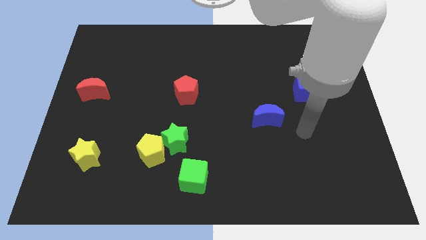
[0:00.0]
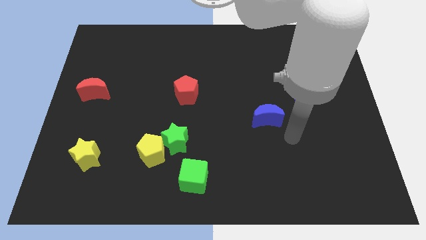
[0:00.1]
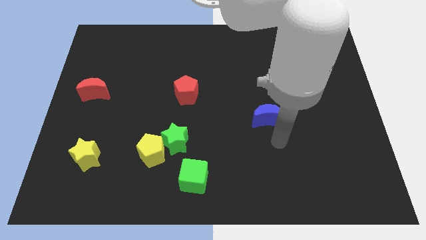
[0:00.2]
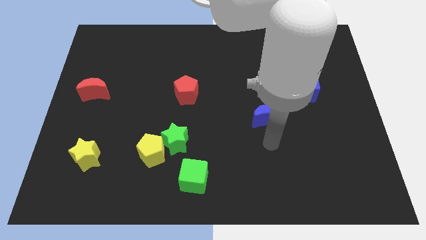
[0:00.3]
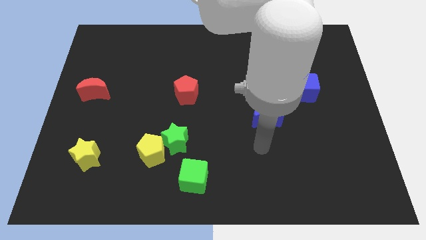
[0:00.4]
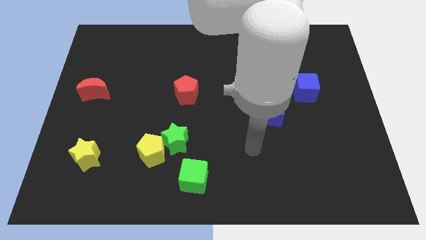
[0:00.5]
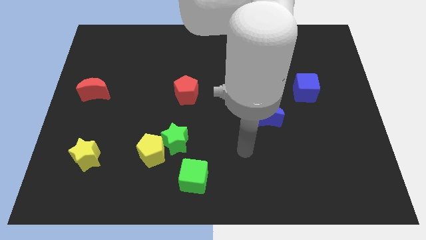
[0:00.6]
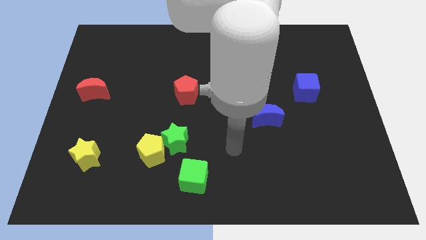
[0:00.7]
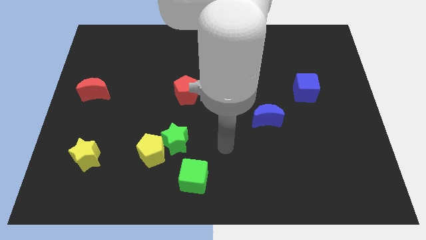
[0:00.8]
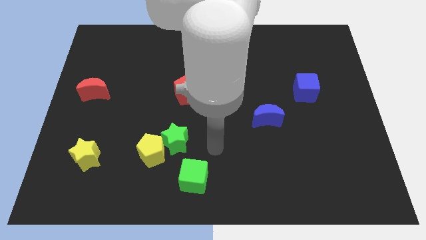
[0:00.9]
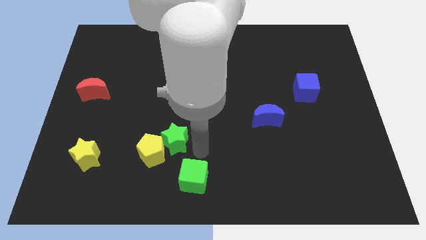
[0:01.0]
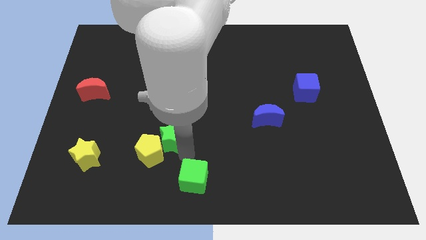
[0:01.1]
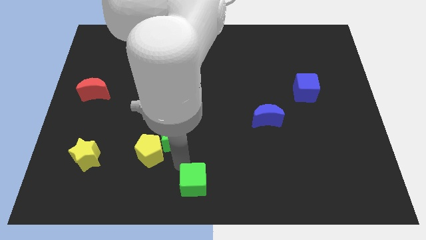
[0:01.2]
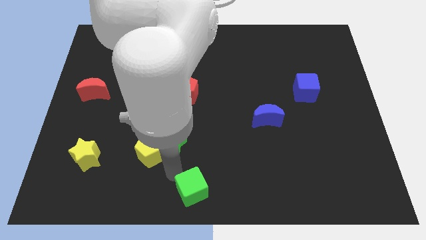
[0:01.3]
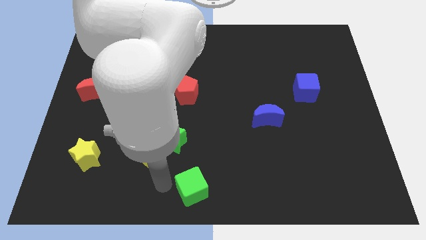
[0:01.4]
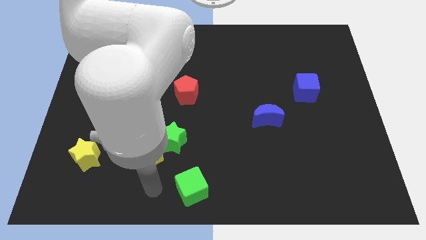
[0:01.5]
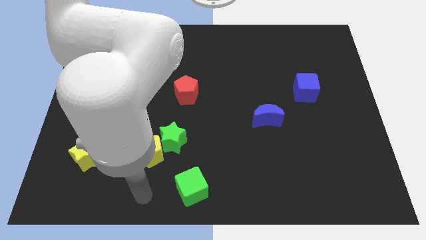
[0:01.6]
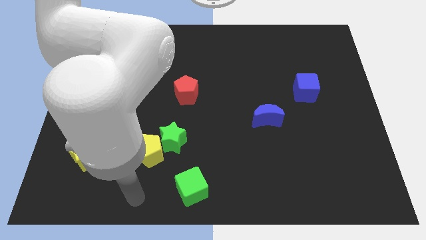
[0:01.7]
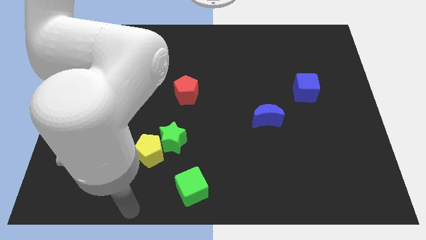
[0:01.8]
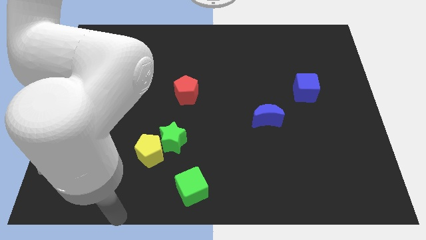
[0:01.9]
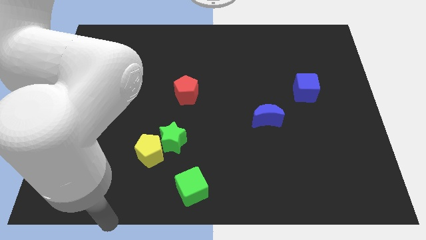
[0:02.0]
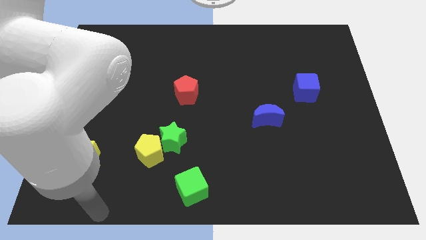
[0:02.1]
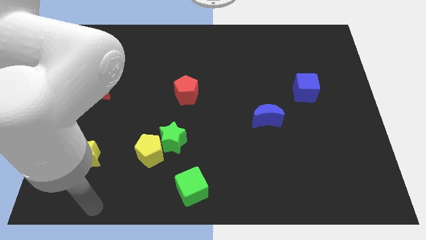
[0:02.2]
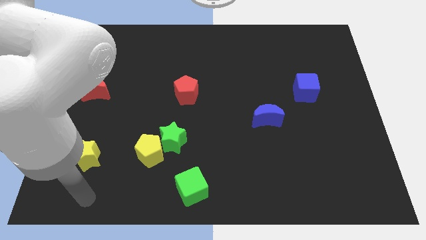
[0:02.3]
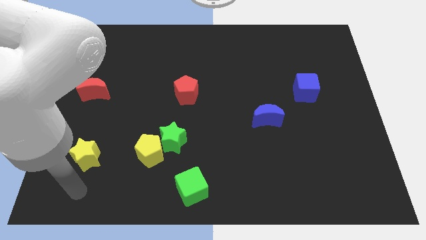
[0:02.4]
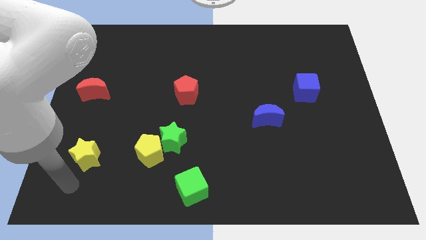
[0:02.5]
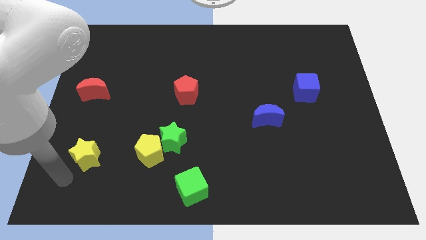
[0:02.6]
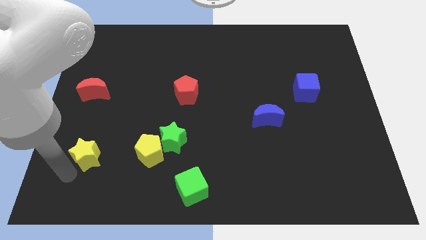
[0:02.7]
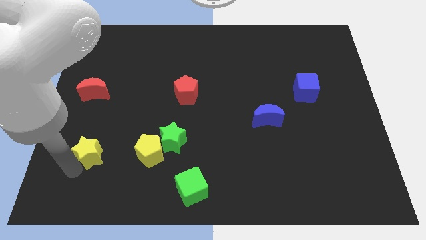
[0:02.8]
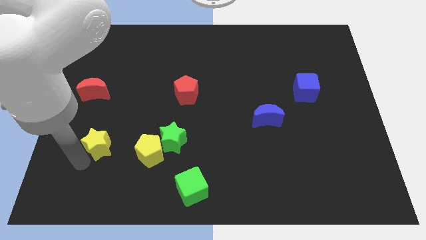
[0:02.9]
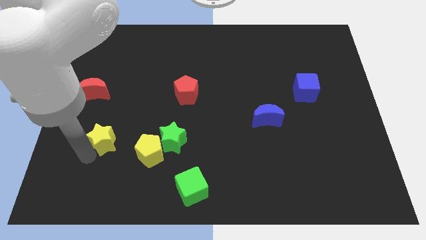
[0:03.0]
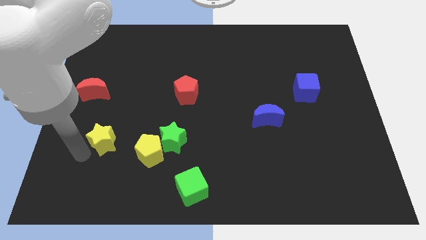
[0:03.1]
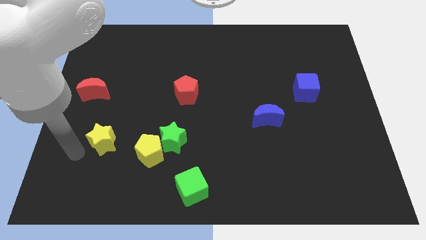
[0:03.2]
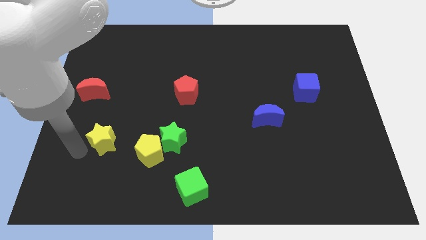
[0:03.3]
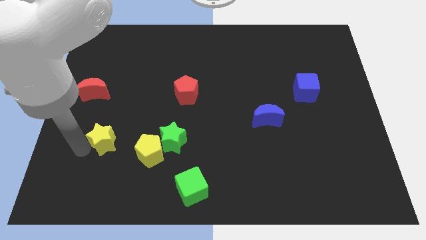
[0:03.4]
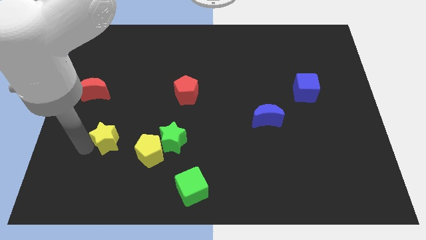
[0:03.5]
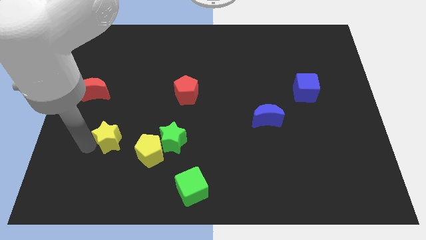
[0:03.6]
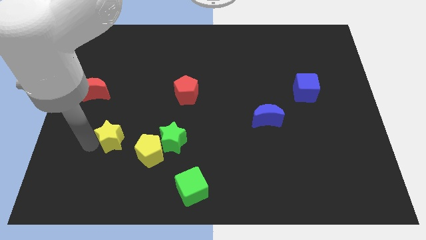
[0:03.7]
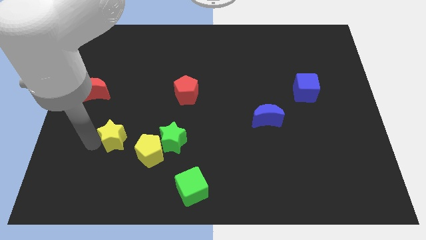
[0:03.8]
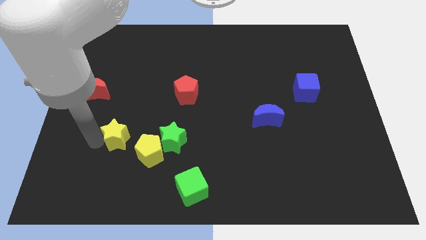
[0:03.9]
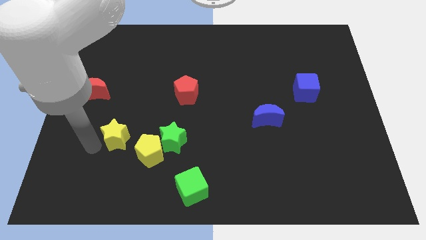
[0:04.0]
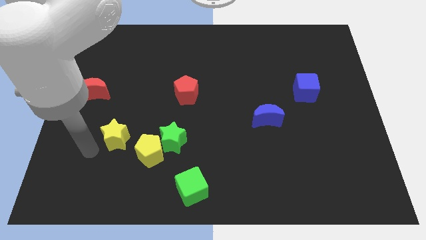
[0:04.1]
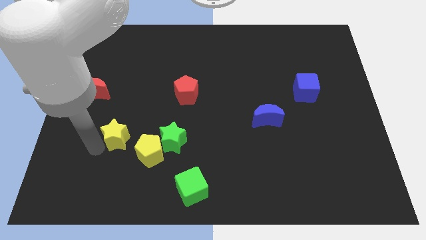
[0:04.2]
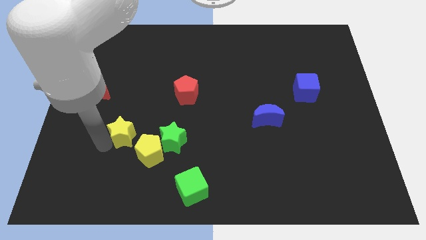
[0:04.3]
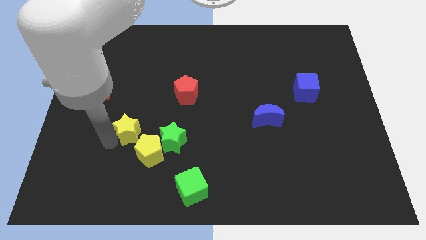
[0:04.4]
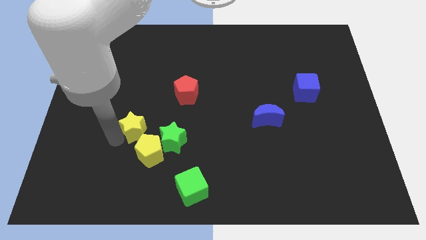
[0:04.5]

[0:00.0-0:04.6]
slightly push the yellow star right

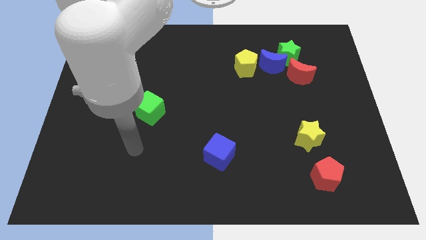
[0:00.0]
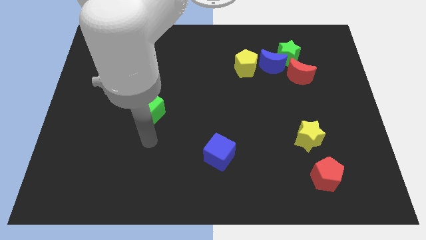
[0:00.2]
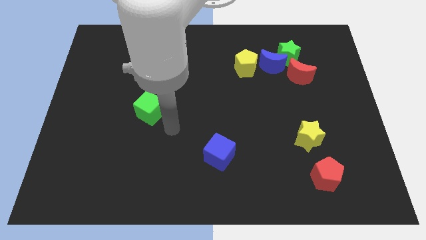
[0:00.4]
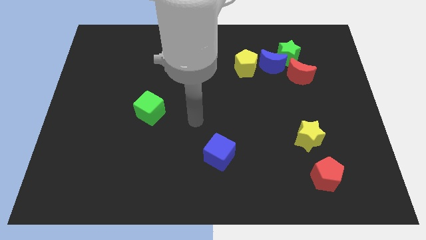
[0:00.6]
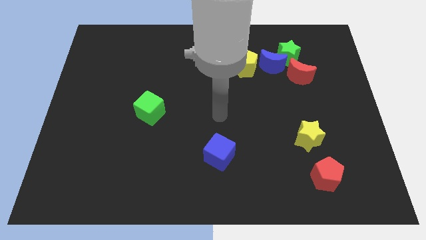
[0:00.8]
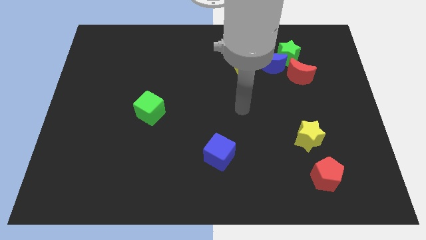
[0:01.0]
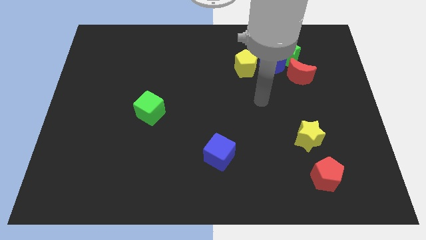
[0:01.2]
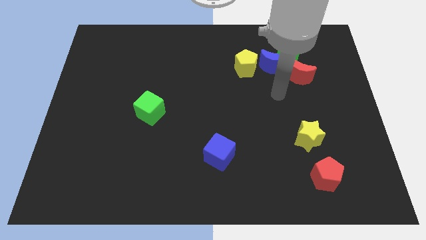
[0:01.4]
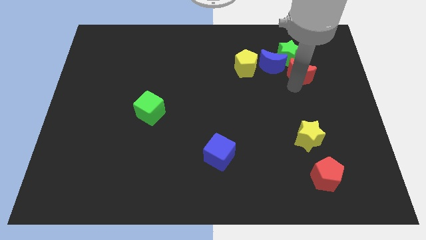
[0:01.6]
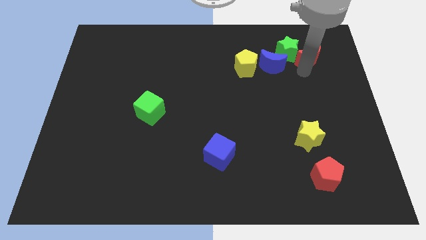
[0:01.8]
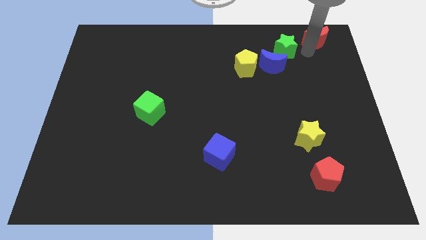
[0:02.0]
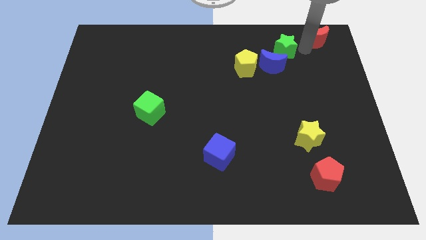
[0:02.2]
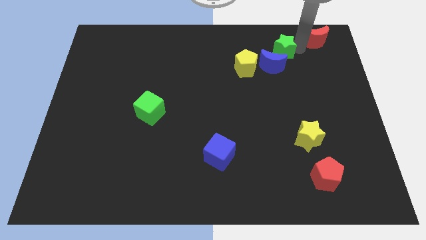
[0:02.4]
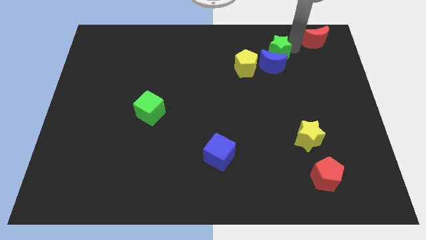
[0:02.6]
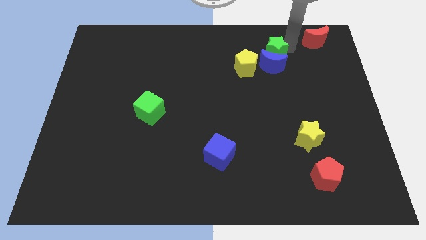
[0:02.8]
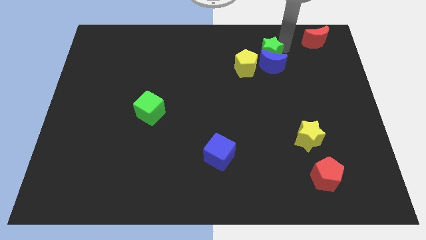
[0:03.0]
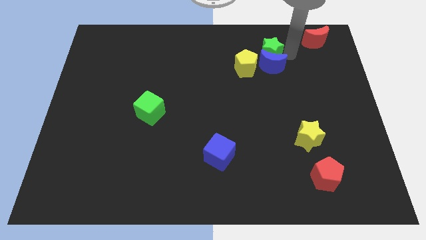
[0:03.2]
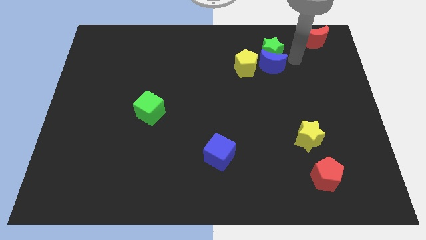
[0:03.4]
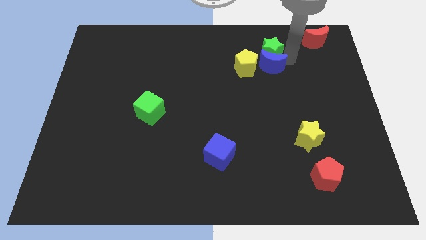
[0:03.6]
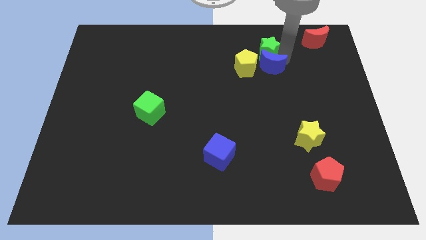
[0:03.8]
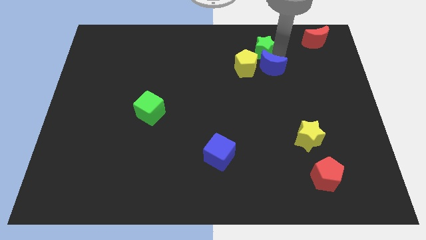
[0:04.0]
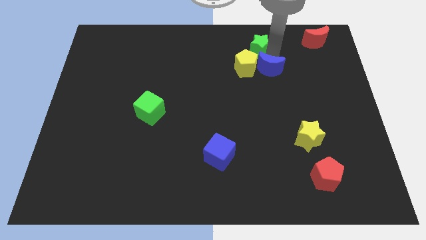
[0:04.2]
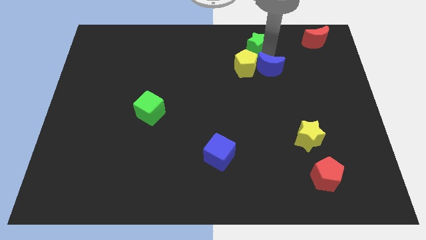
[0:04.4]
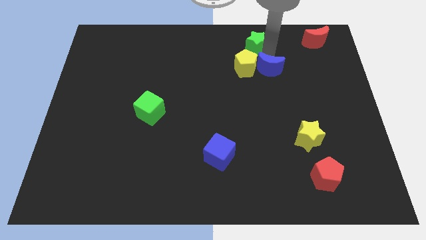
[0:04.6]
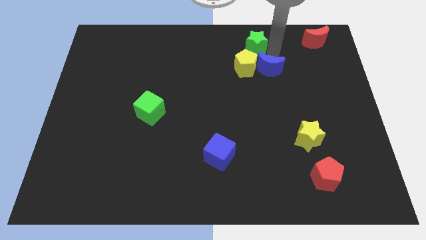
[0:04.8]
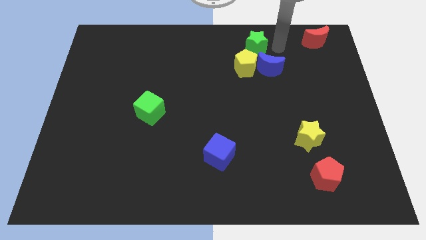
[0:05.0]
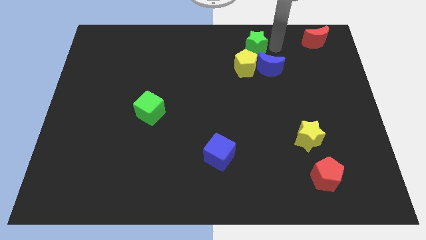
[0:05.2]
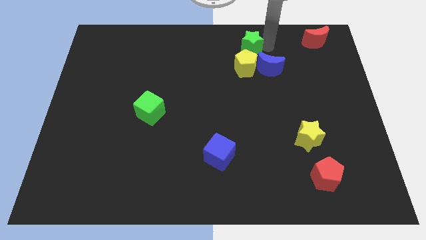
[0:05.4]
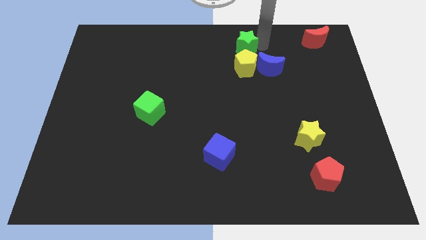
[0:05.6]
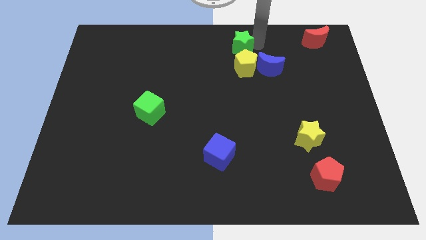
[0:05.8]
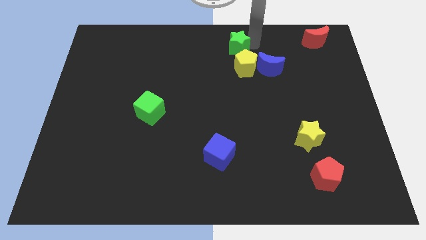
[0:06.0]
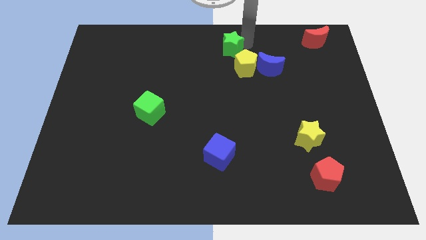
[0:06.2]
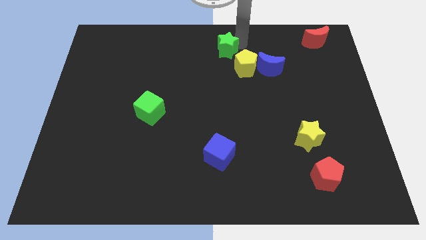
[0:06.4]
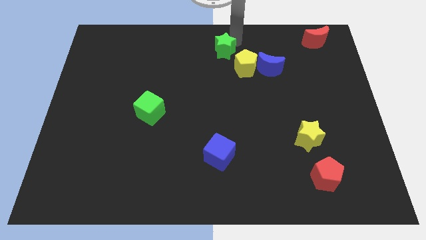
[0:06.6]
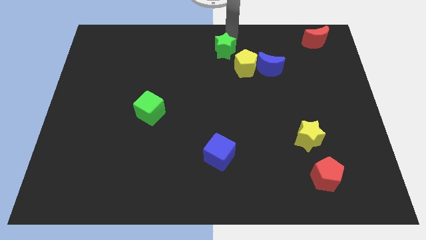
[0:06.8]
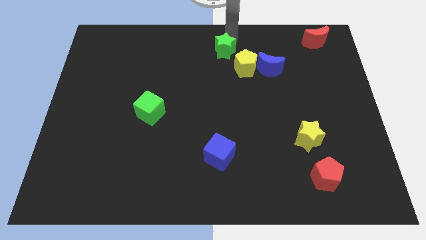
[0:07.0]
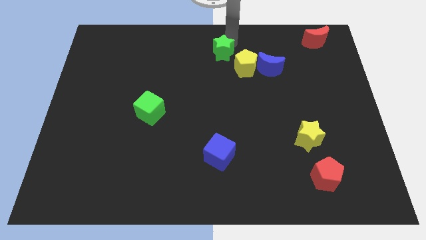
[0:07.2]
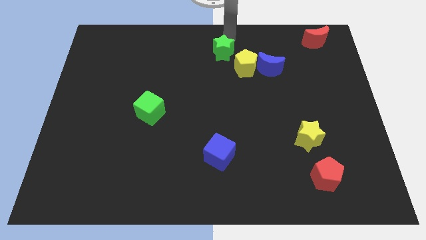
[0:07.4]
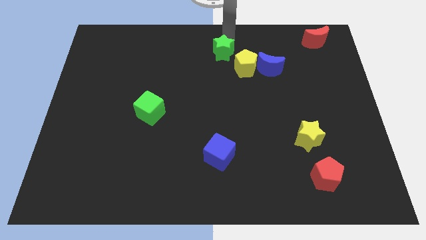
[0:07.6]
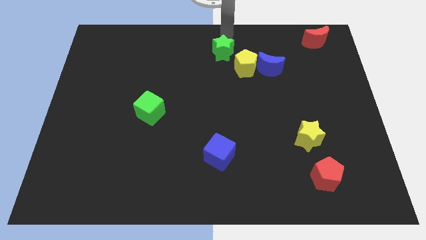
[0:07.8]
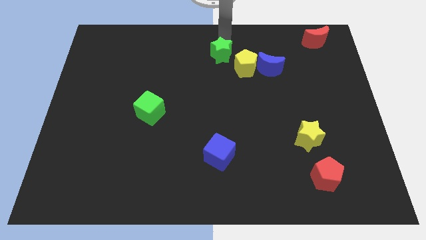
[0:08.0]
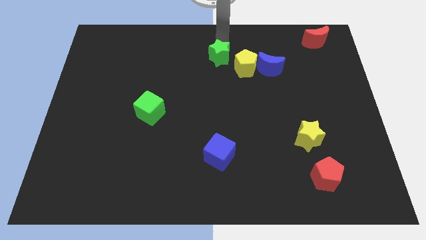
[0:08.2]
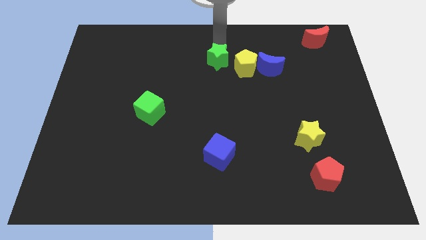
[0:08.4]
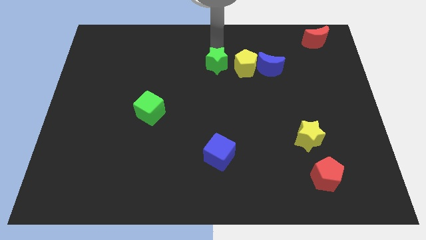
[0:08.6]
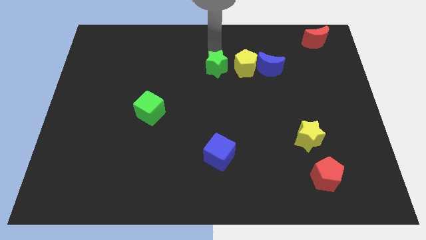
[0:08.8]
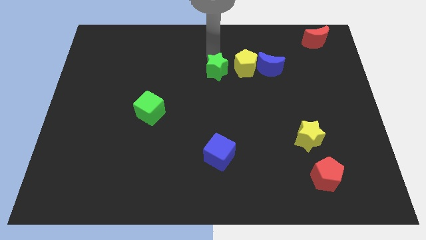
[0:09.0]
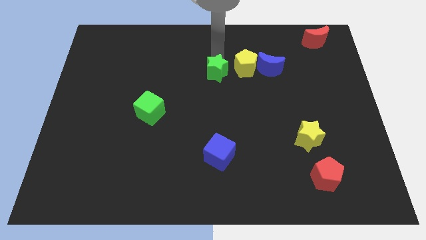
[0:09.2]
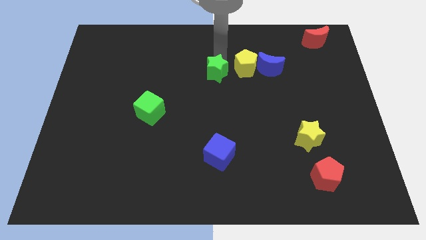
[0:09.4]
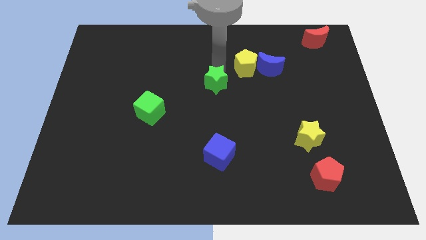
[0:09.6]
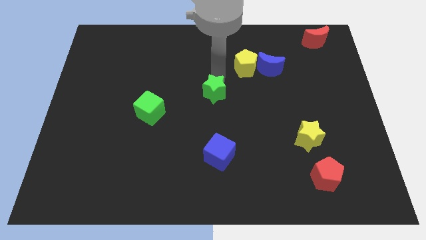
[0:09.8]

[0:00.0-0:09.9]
slide the green star downwards and then to the left
